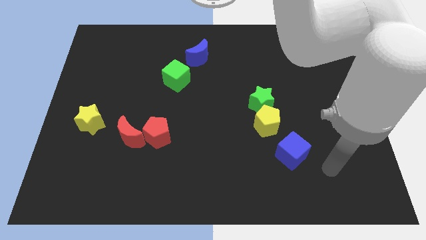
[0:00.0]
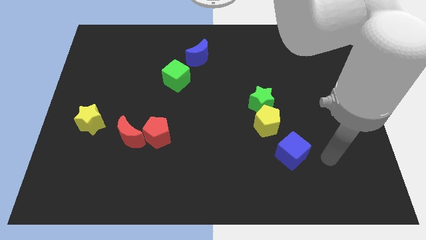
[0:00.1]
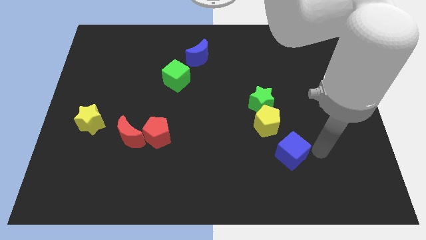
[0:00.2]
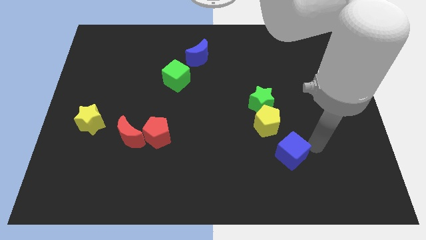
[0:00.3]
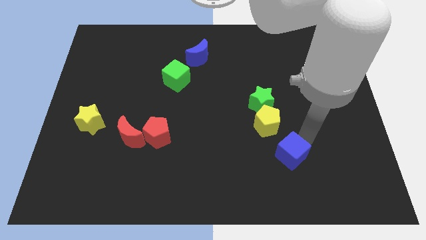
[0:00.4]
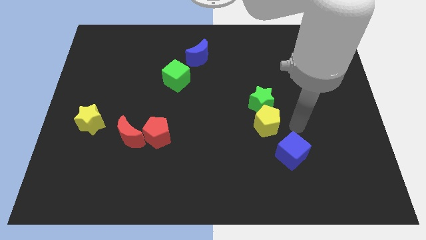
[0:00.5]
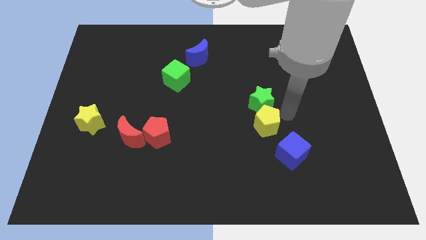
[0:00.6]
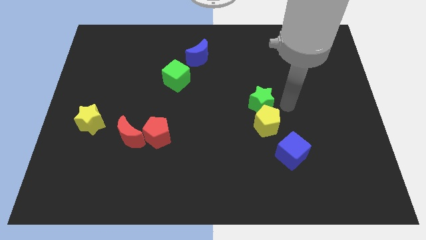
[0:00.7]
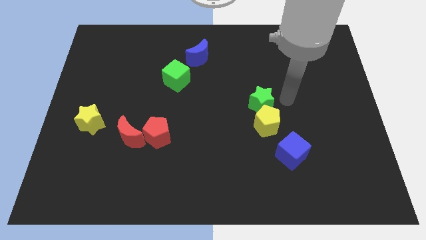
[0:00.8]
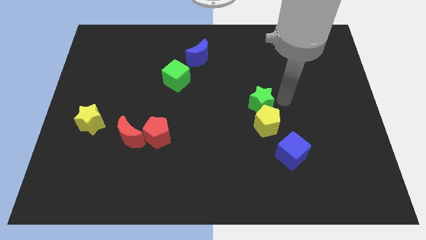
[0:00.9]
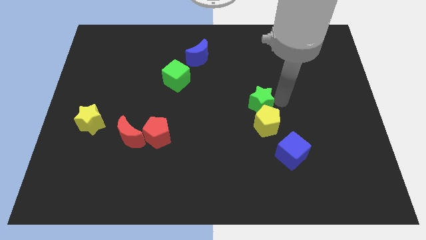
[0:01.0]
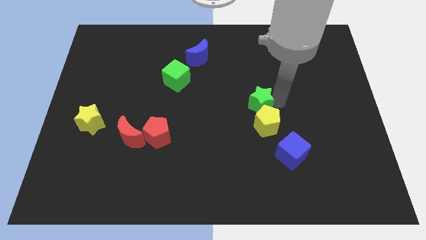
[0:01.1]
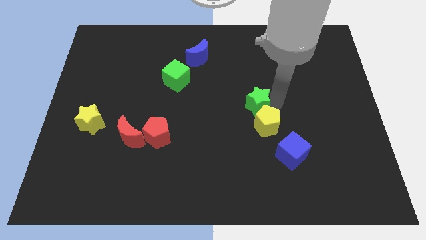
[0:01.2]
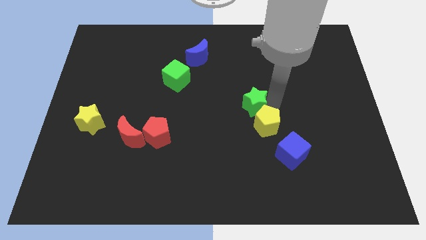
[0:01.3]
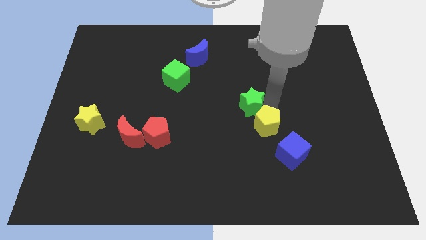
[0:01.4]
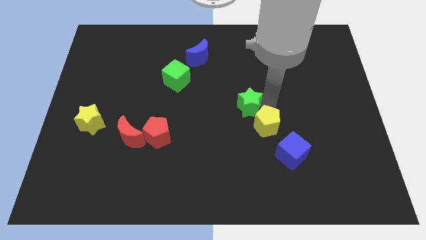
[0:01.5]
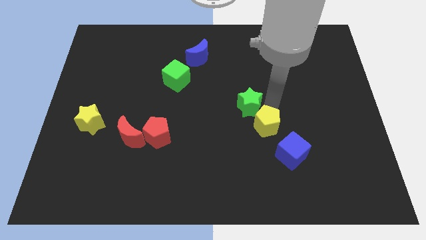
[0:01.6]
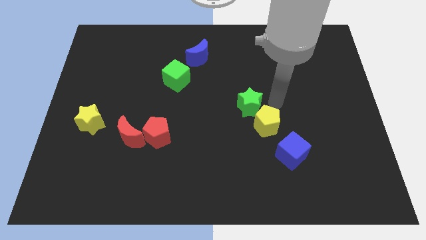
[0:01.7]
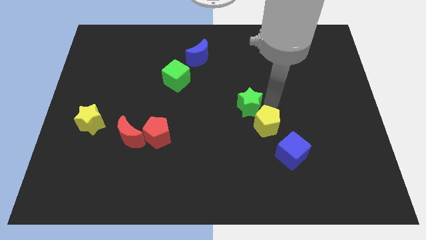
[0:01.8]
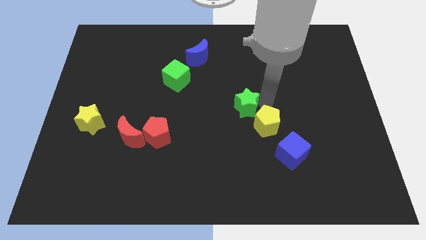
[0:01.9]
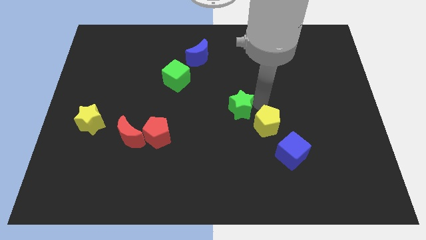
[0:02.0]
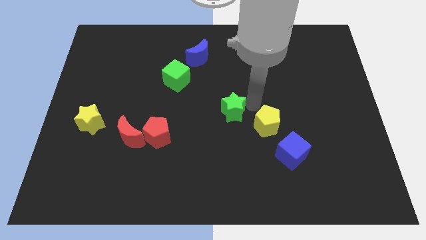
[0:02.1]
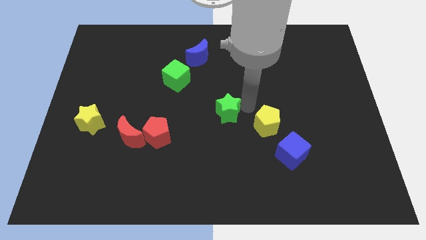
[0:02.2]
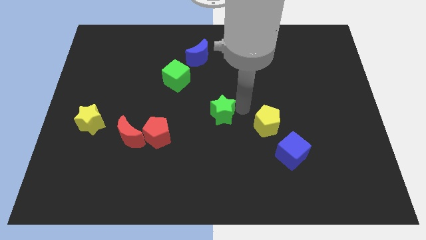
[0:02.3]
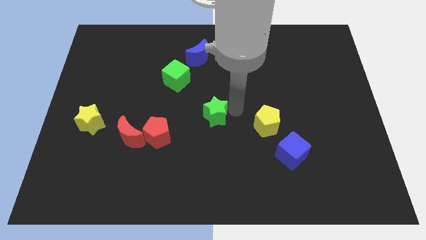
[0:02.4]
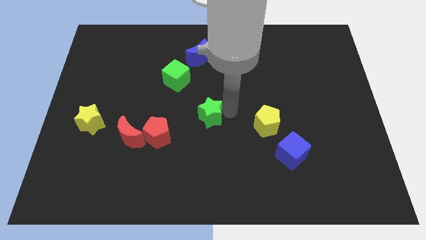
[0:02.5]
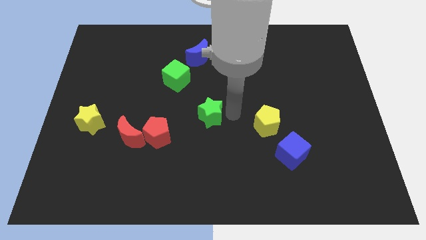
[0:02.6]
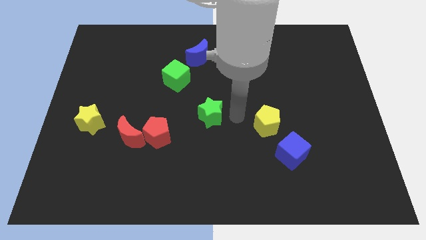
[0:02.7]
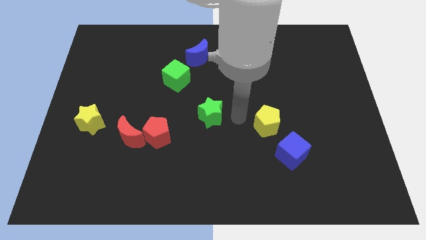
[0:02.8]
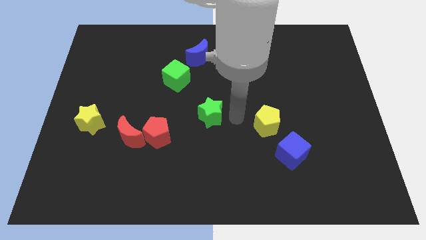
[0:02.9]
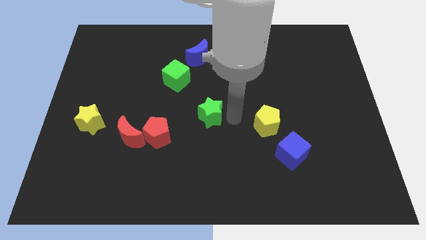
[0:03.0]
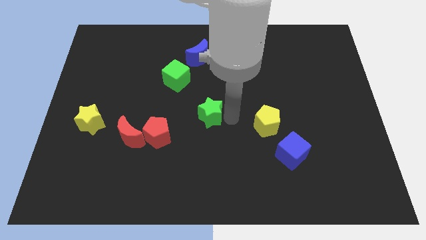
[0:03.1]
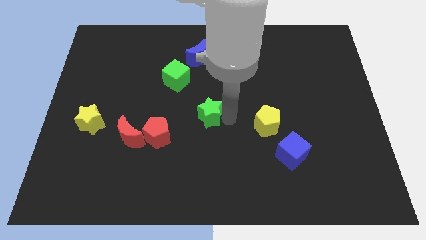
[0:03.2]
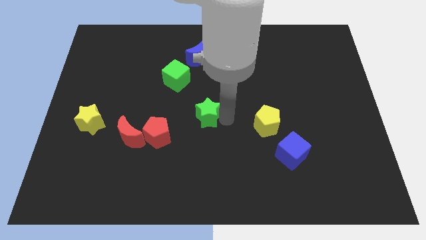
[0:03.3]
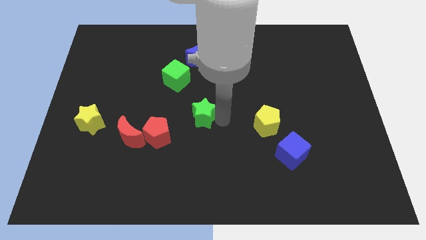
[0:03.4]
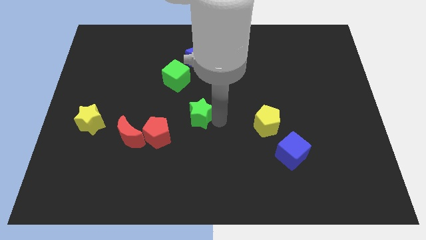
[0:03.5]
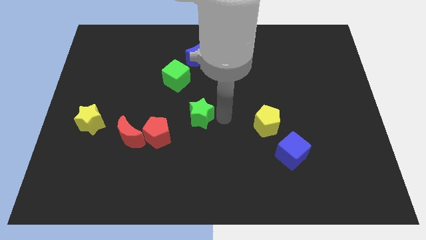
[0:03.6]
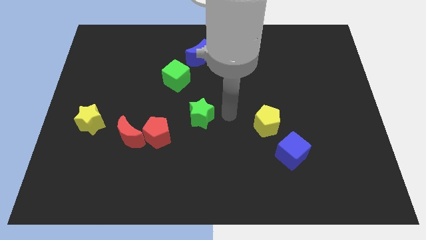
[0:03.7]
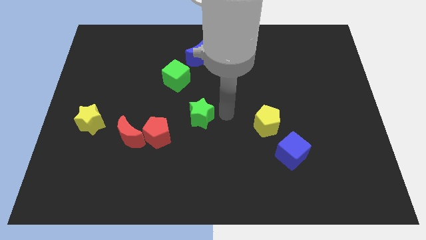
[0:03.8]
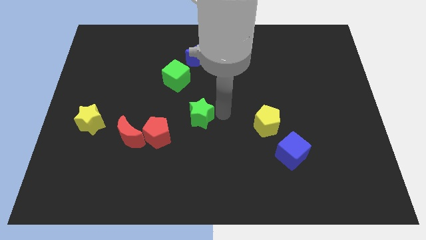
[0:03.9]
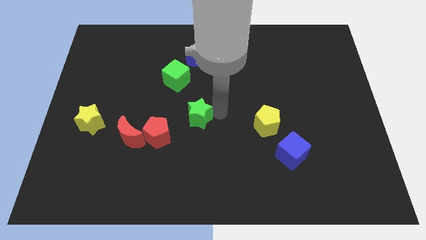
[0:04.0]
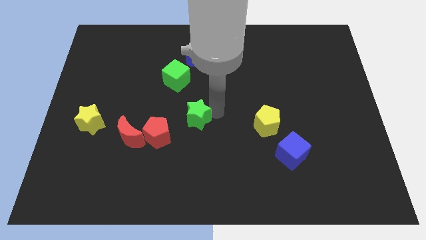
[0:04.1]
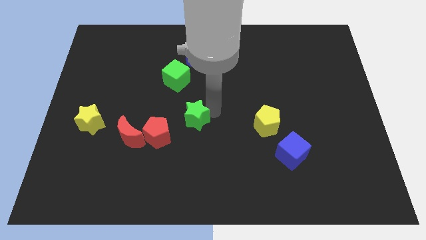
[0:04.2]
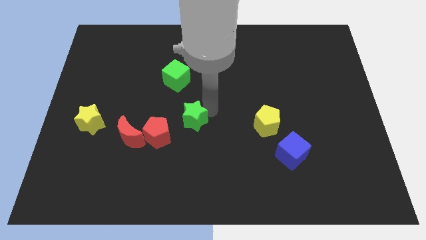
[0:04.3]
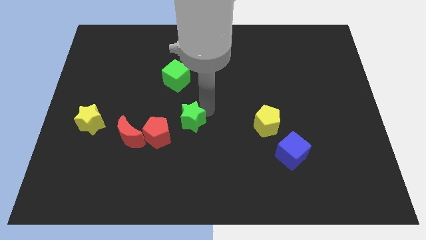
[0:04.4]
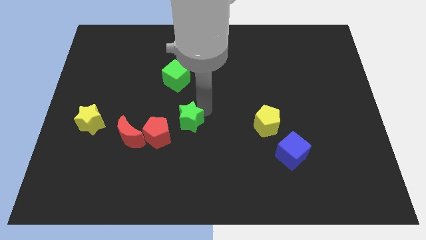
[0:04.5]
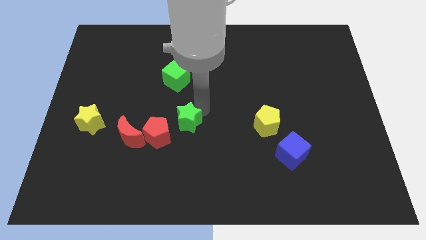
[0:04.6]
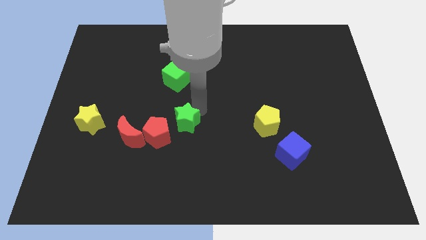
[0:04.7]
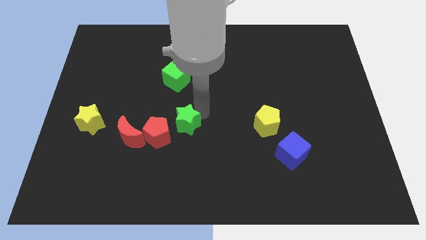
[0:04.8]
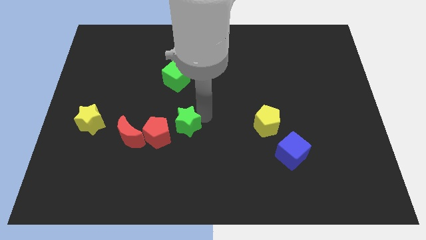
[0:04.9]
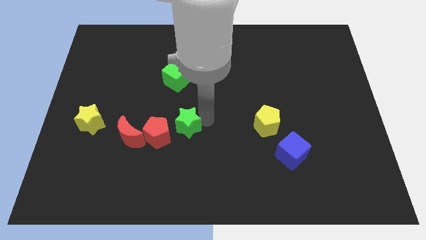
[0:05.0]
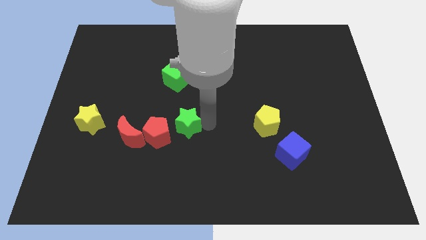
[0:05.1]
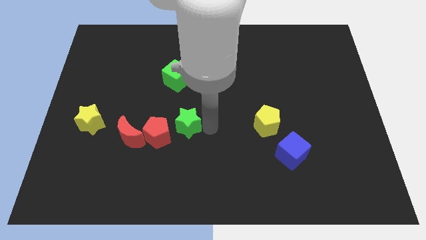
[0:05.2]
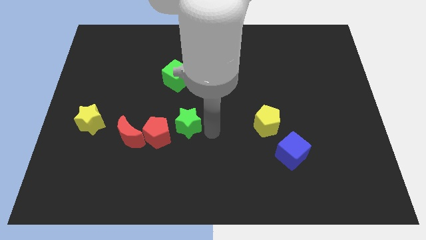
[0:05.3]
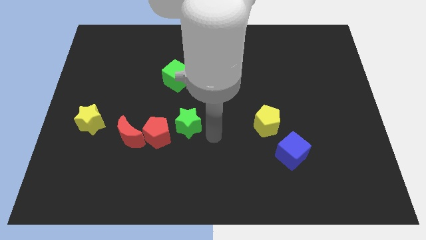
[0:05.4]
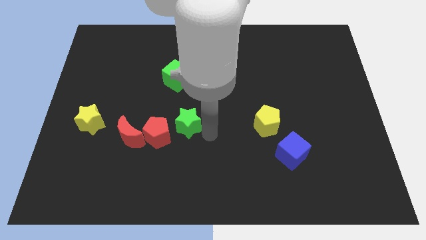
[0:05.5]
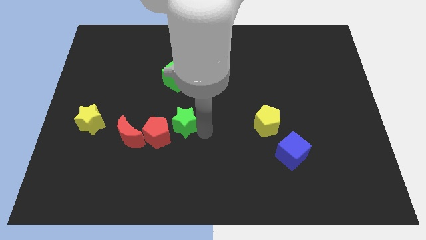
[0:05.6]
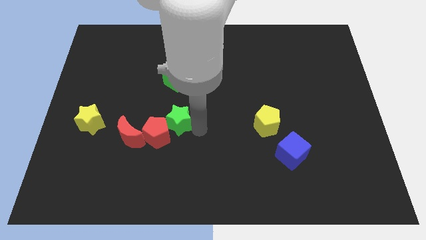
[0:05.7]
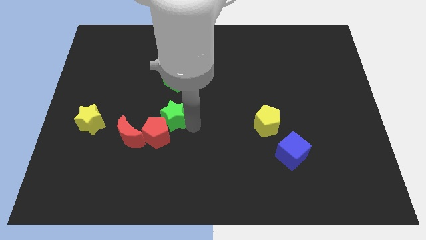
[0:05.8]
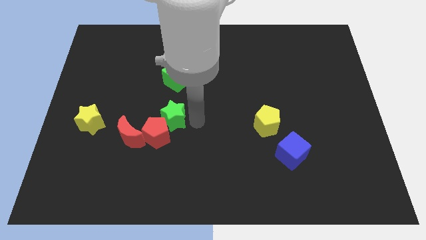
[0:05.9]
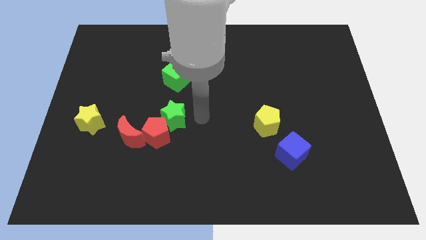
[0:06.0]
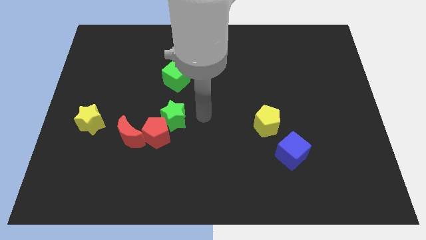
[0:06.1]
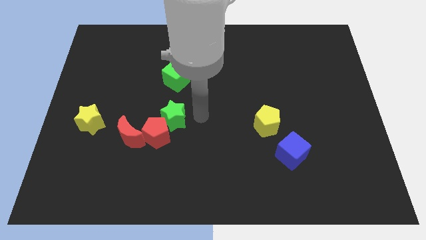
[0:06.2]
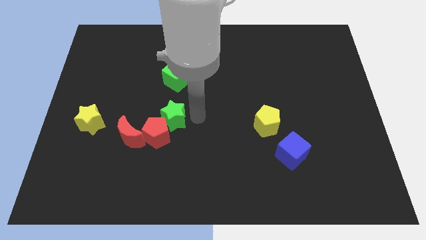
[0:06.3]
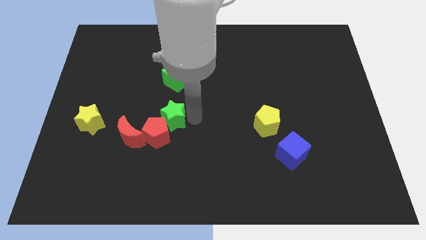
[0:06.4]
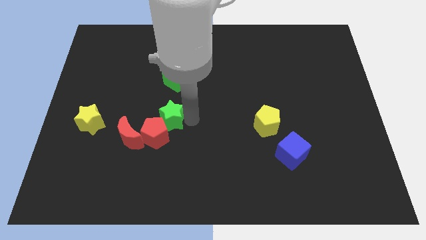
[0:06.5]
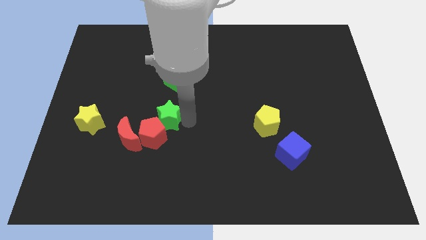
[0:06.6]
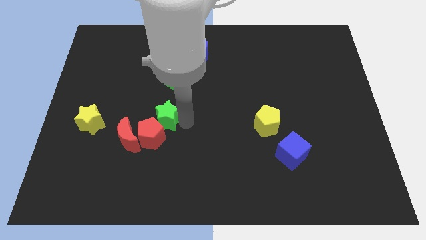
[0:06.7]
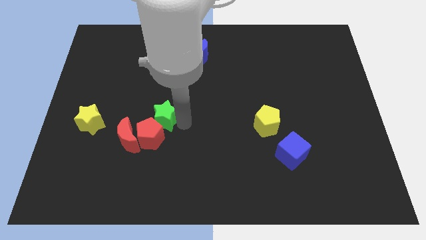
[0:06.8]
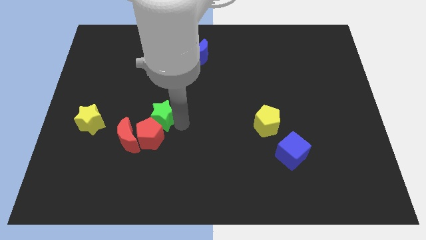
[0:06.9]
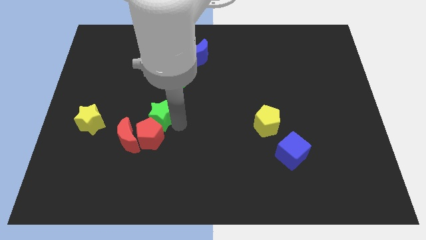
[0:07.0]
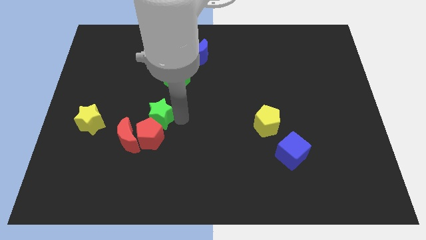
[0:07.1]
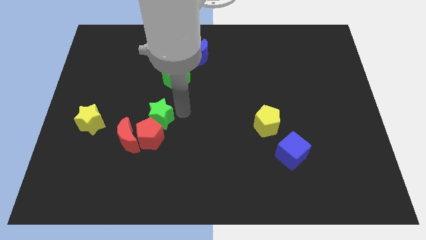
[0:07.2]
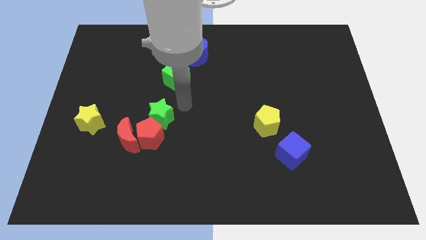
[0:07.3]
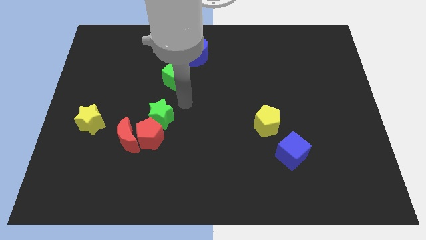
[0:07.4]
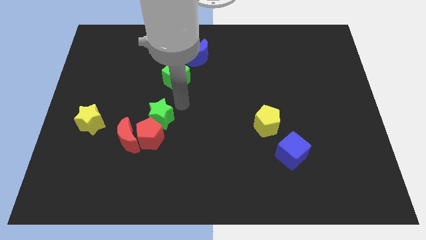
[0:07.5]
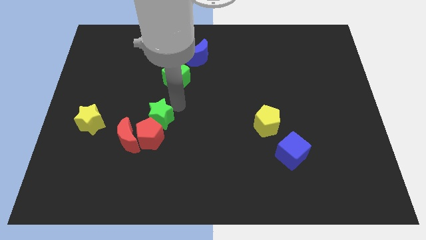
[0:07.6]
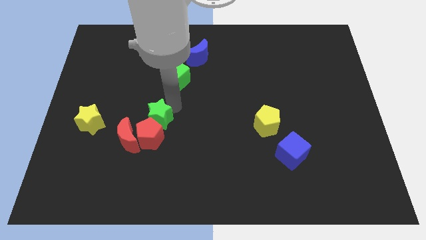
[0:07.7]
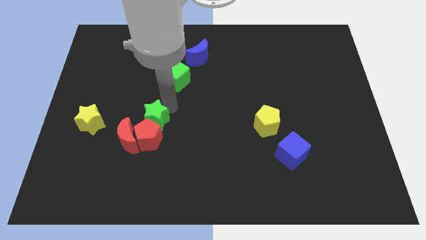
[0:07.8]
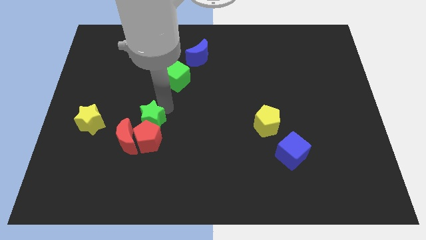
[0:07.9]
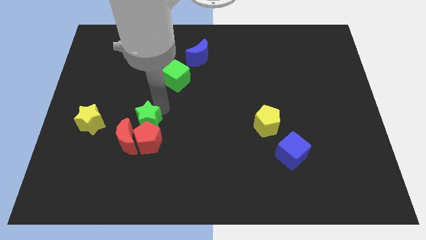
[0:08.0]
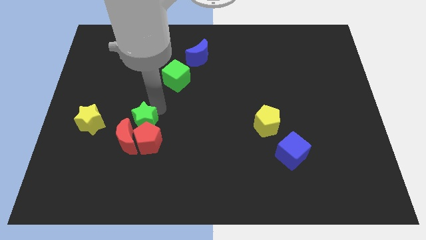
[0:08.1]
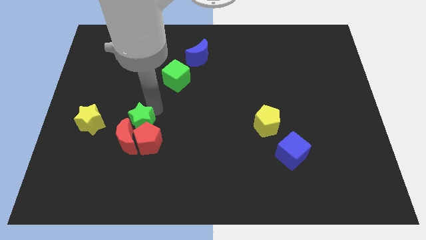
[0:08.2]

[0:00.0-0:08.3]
move the green star to the red moon
